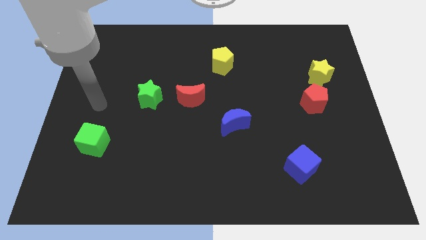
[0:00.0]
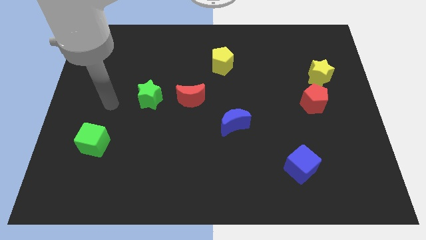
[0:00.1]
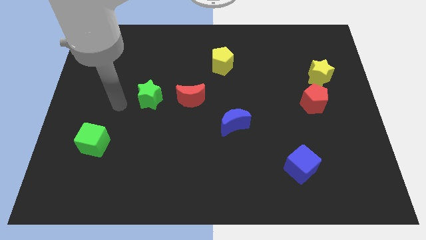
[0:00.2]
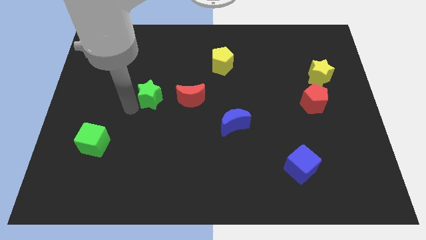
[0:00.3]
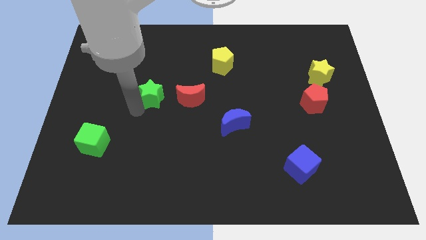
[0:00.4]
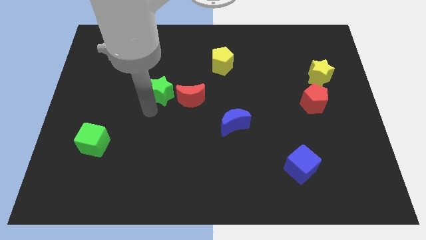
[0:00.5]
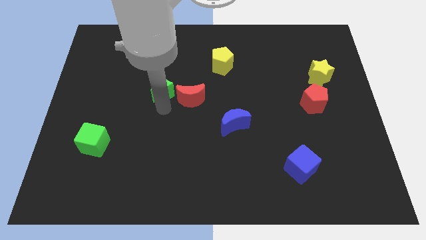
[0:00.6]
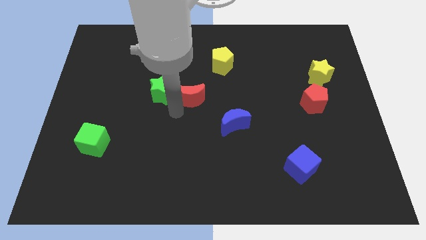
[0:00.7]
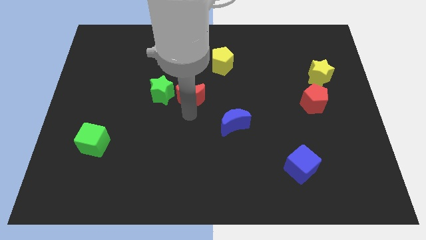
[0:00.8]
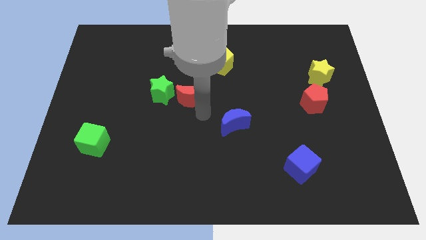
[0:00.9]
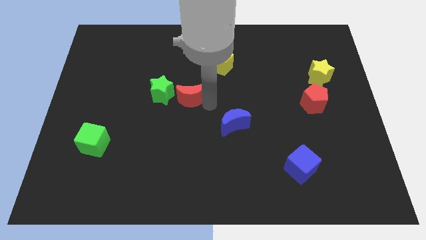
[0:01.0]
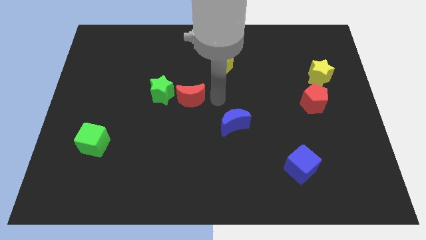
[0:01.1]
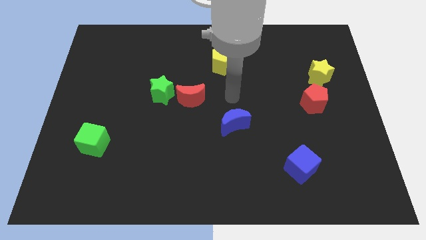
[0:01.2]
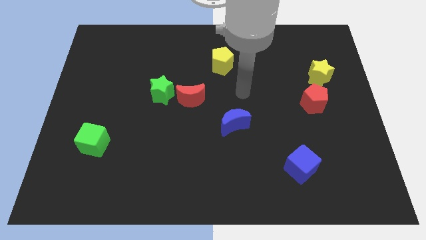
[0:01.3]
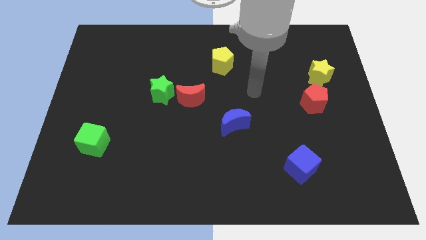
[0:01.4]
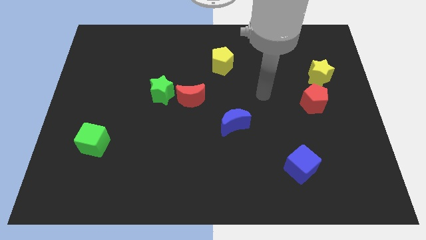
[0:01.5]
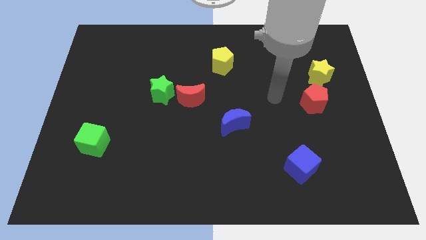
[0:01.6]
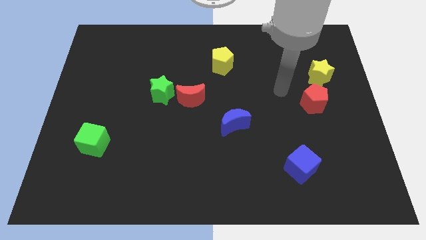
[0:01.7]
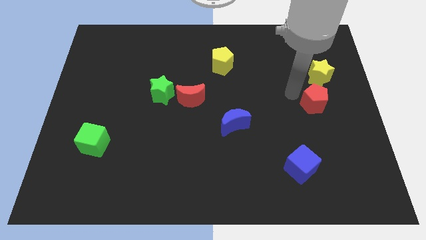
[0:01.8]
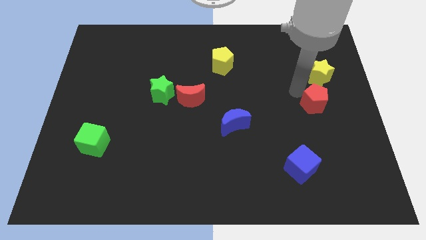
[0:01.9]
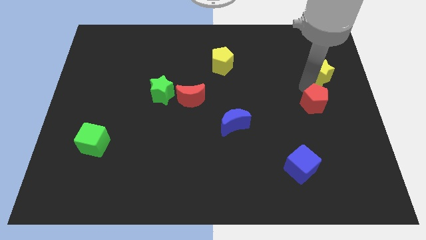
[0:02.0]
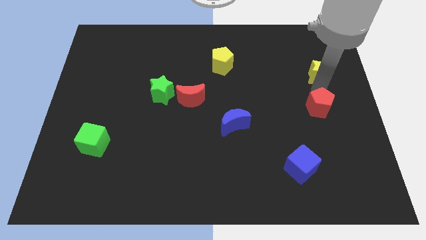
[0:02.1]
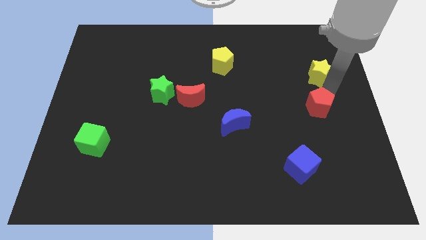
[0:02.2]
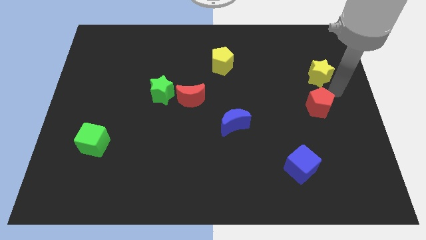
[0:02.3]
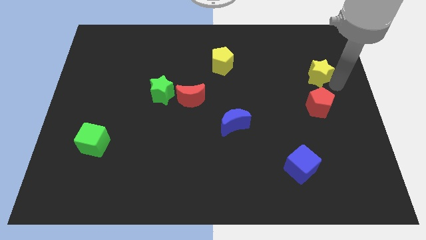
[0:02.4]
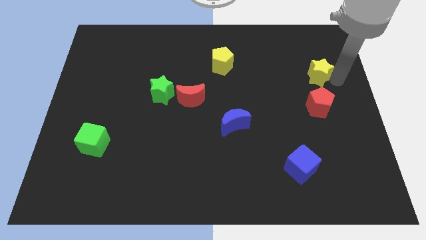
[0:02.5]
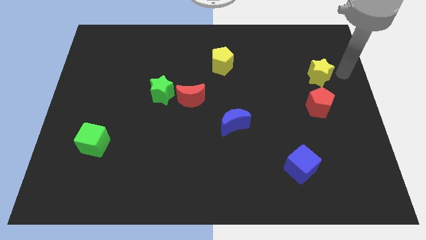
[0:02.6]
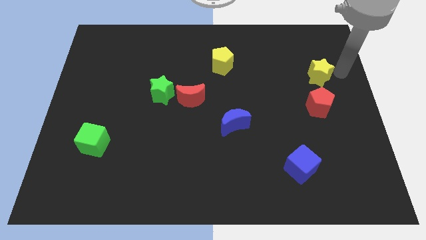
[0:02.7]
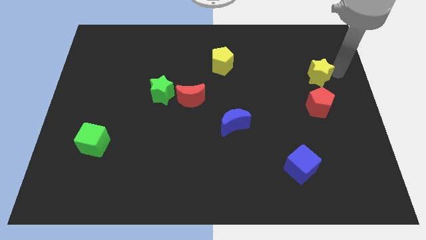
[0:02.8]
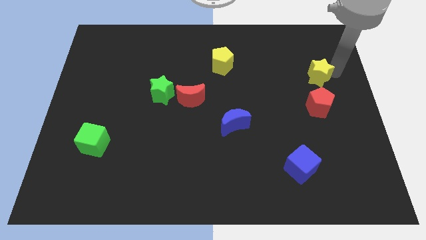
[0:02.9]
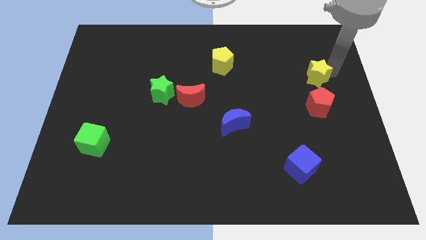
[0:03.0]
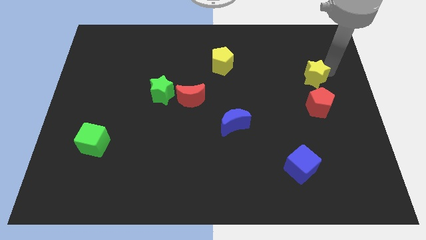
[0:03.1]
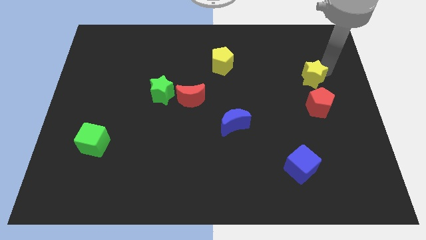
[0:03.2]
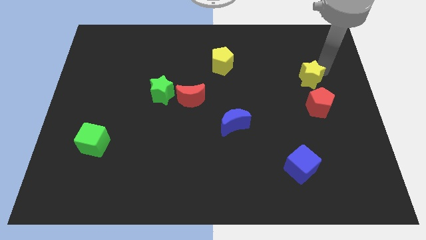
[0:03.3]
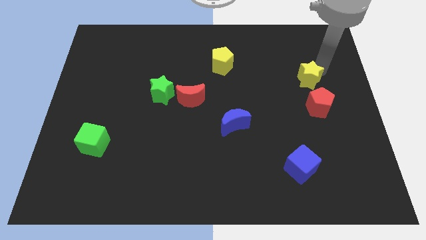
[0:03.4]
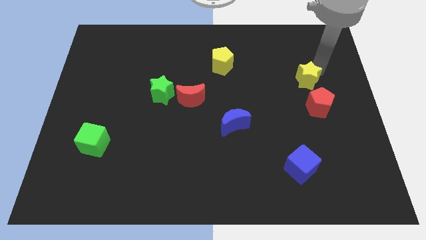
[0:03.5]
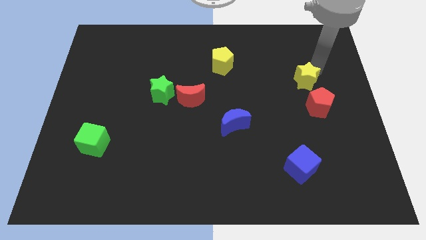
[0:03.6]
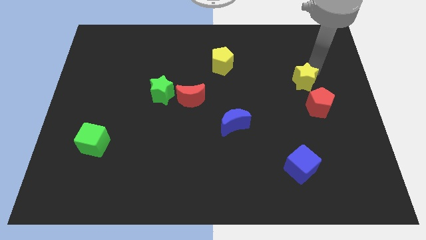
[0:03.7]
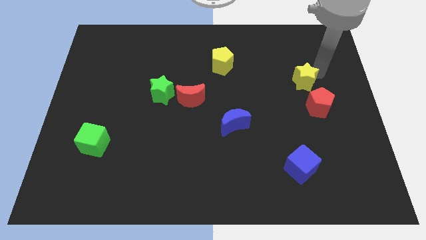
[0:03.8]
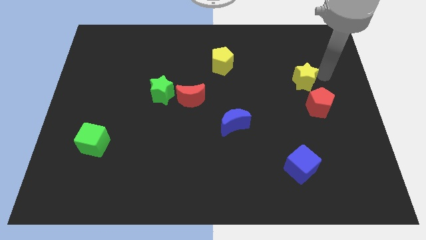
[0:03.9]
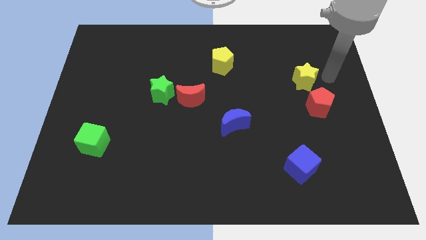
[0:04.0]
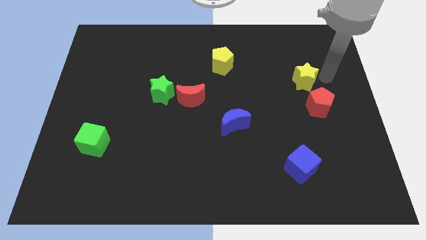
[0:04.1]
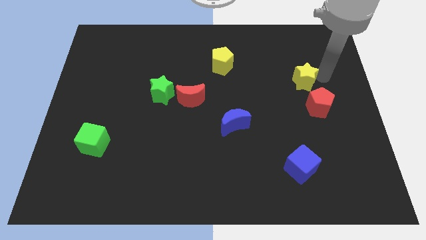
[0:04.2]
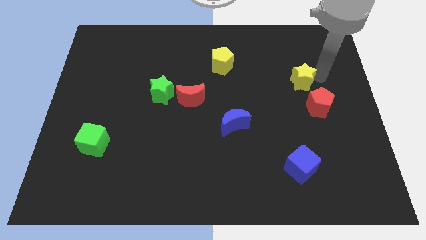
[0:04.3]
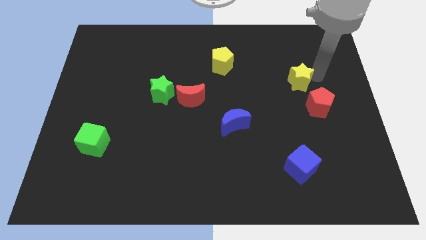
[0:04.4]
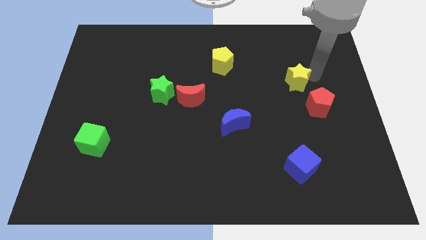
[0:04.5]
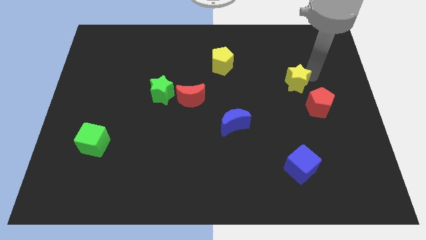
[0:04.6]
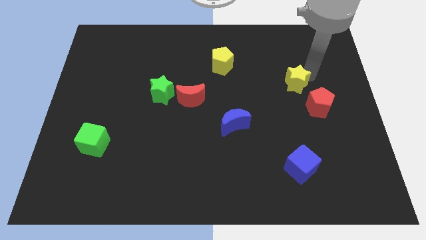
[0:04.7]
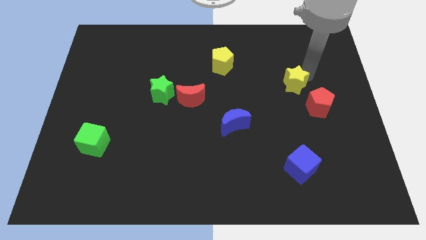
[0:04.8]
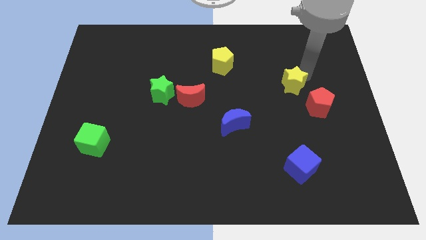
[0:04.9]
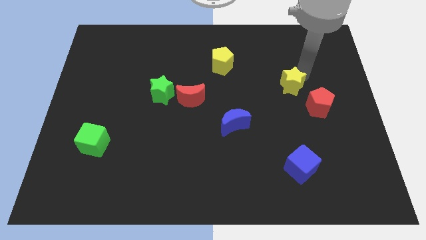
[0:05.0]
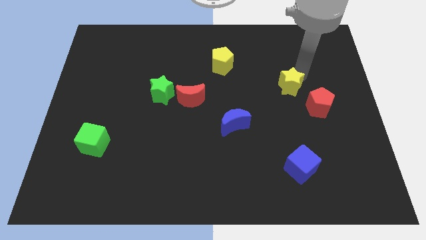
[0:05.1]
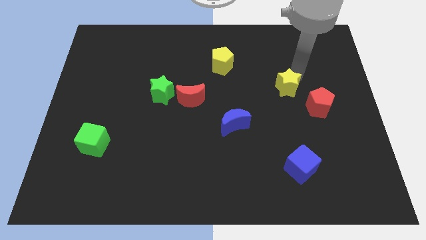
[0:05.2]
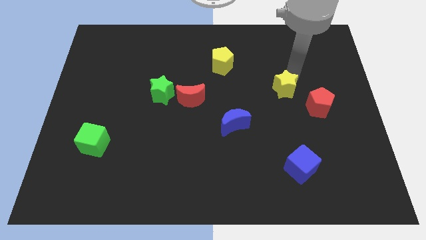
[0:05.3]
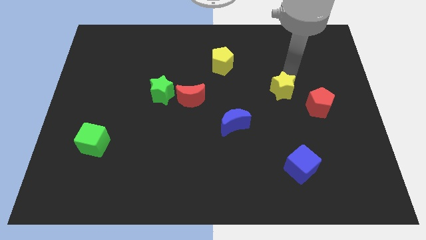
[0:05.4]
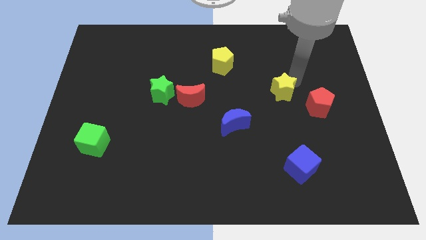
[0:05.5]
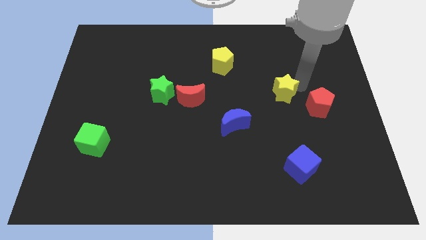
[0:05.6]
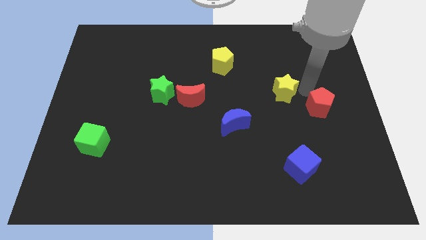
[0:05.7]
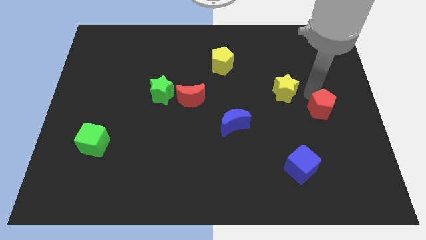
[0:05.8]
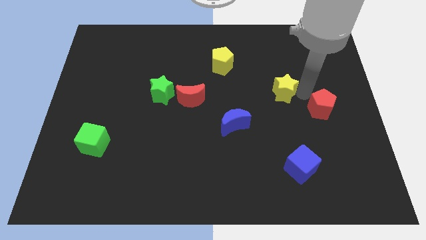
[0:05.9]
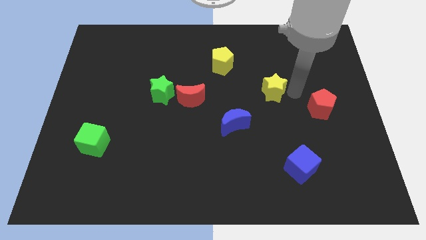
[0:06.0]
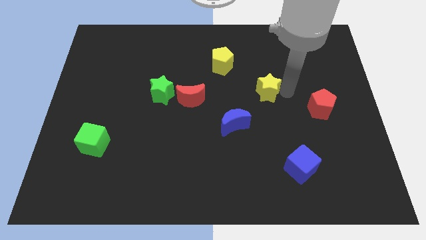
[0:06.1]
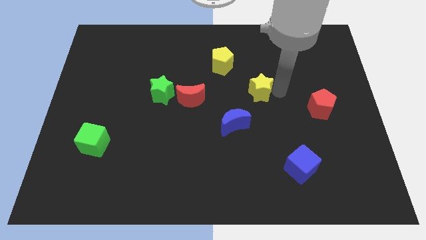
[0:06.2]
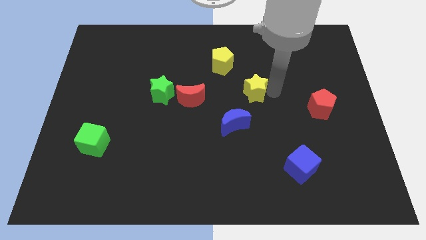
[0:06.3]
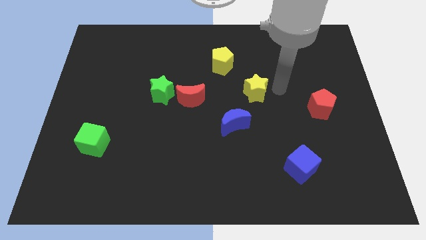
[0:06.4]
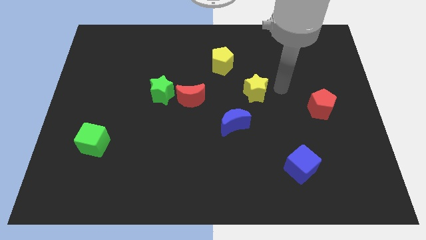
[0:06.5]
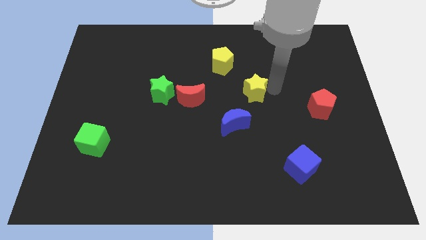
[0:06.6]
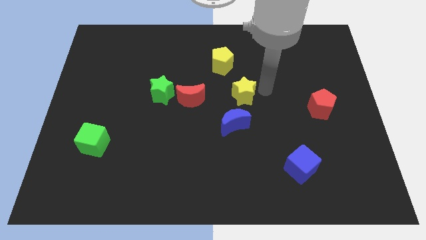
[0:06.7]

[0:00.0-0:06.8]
push the yellow star below the yellow pentagon
